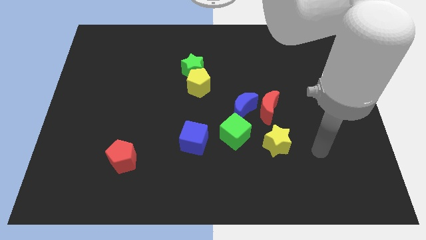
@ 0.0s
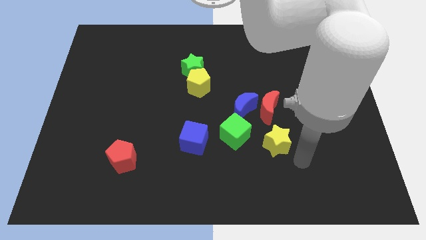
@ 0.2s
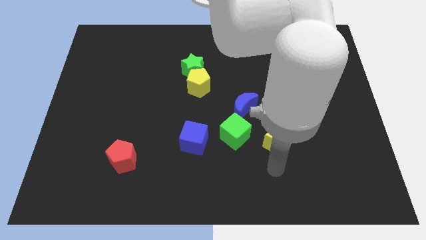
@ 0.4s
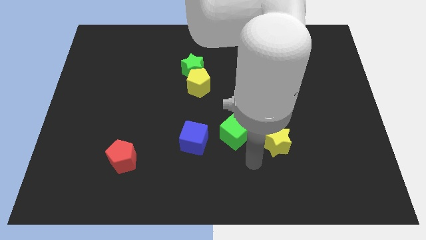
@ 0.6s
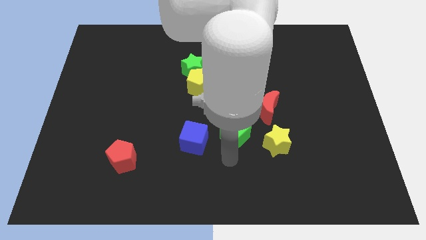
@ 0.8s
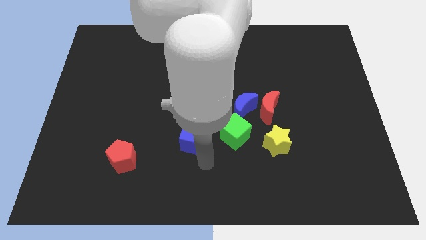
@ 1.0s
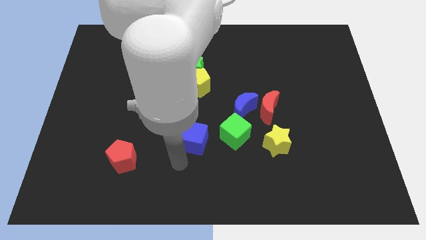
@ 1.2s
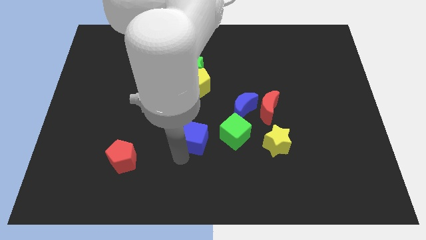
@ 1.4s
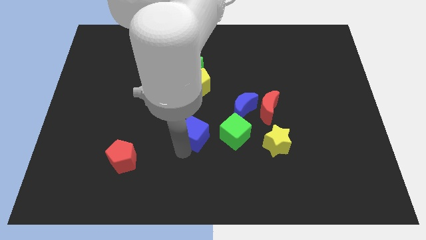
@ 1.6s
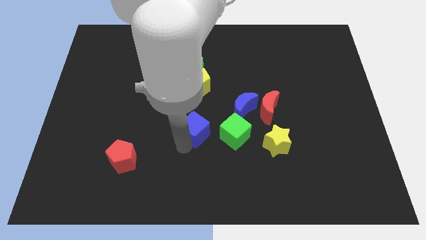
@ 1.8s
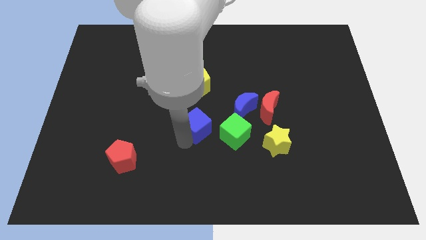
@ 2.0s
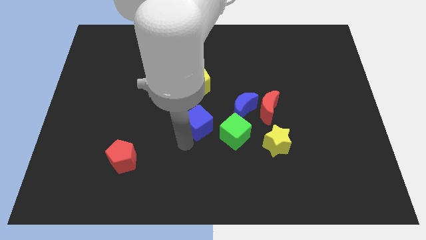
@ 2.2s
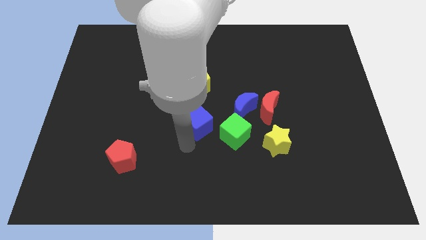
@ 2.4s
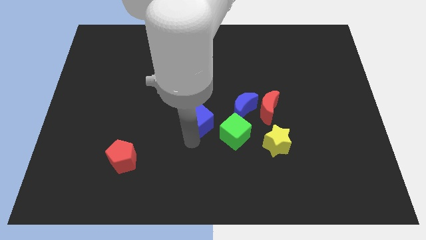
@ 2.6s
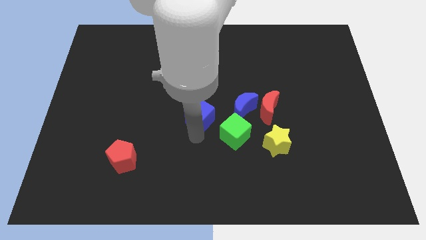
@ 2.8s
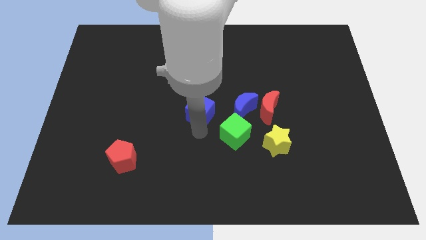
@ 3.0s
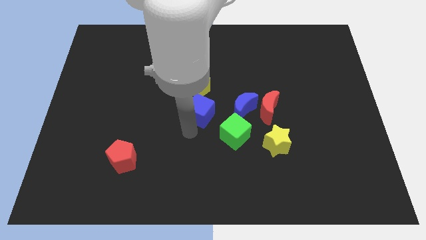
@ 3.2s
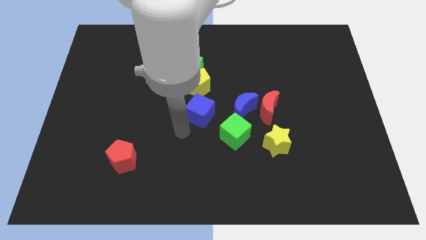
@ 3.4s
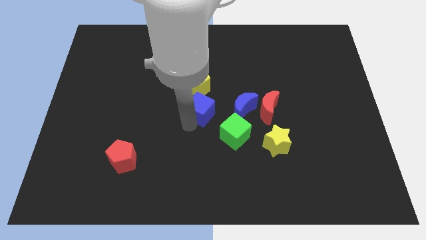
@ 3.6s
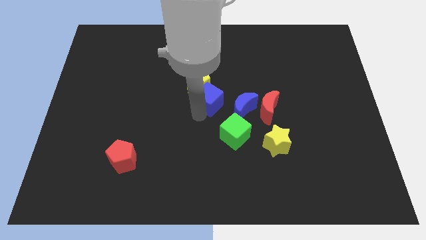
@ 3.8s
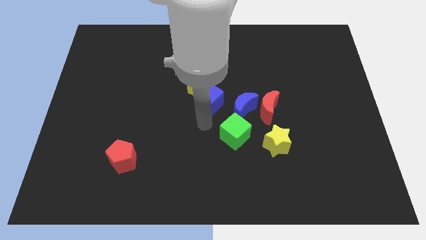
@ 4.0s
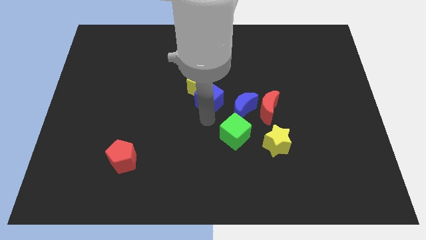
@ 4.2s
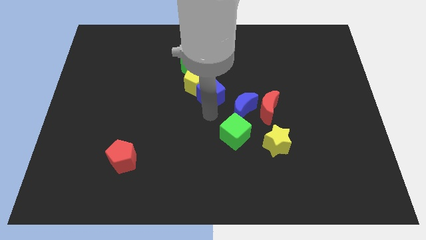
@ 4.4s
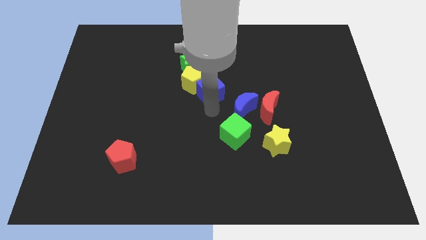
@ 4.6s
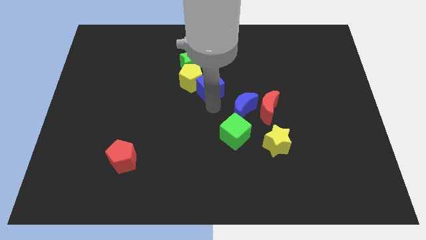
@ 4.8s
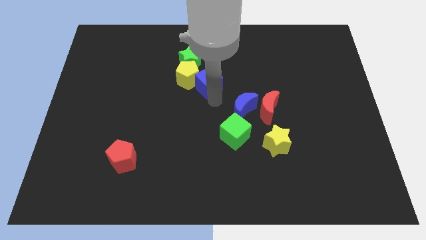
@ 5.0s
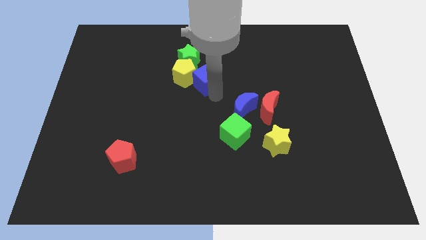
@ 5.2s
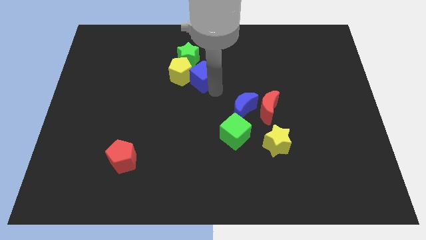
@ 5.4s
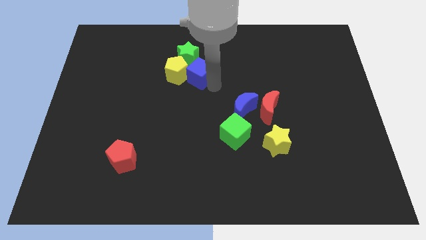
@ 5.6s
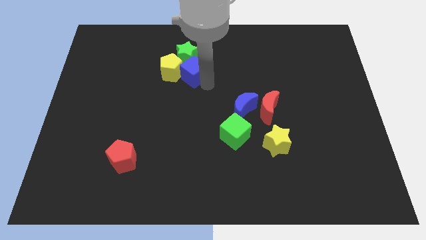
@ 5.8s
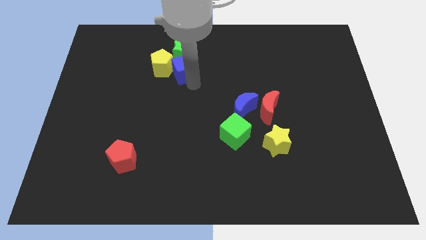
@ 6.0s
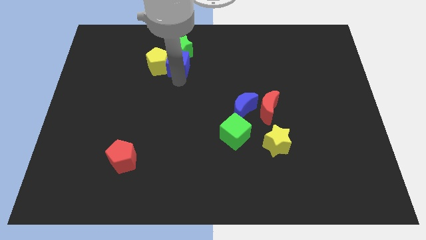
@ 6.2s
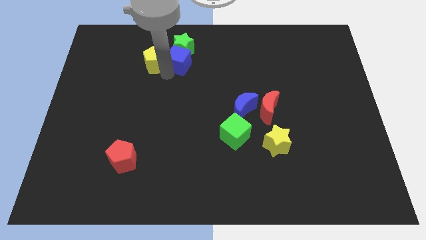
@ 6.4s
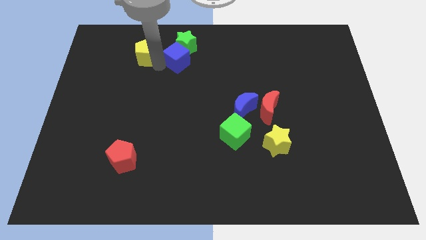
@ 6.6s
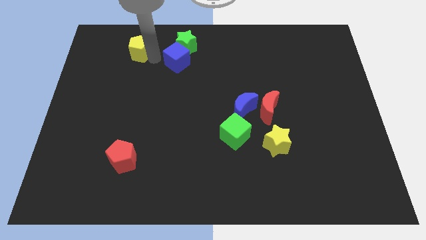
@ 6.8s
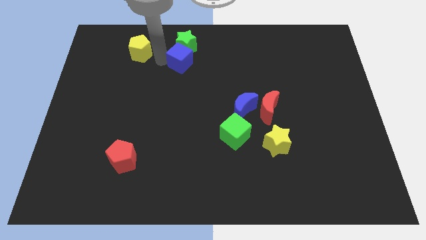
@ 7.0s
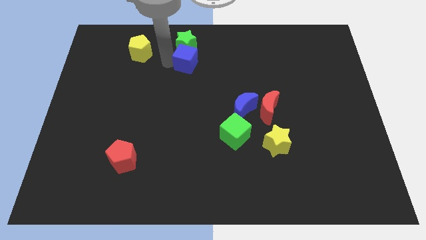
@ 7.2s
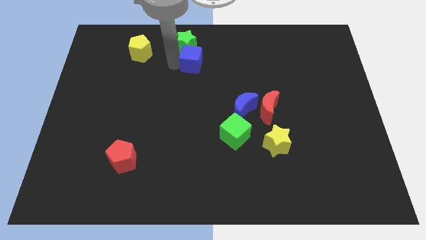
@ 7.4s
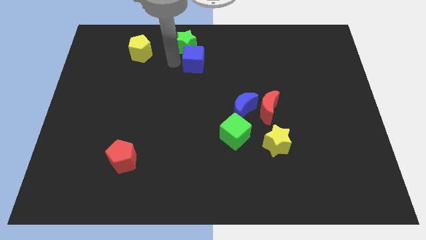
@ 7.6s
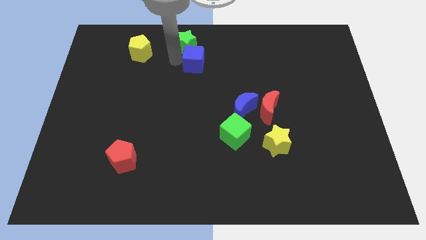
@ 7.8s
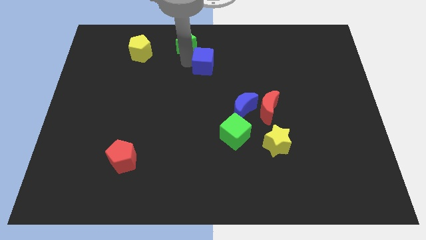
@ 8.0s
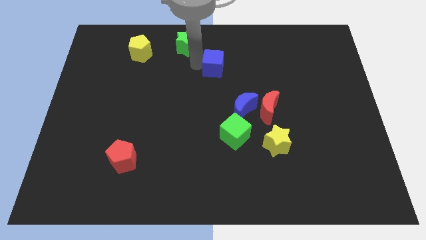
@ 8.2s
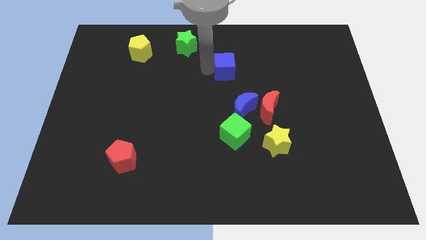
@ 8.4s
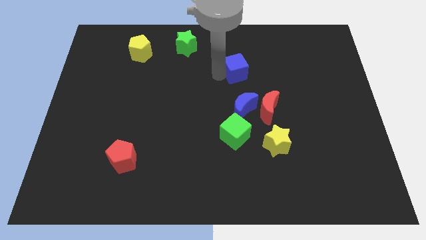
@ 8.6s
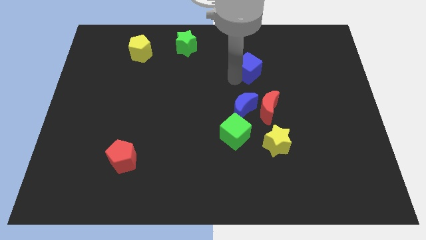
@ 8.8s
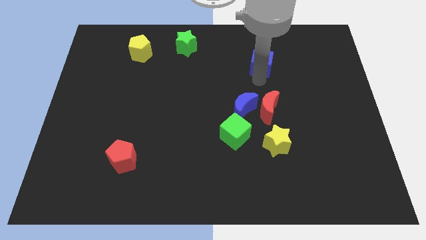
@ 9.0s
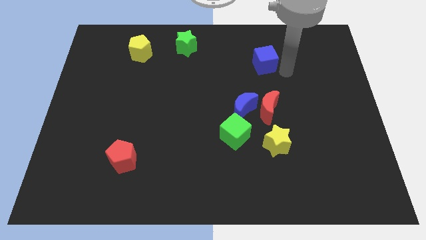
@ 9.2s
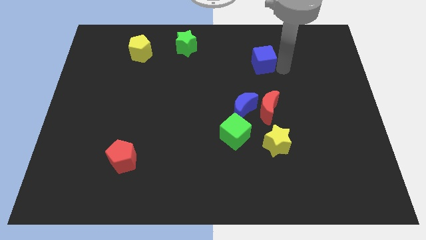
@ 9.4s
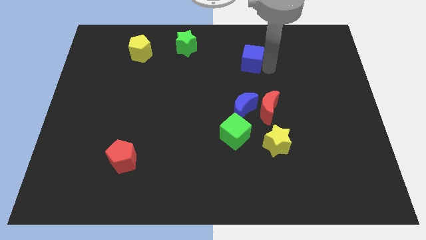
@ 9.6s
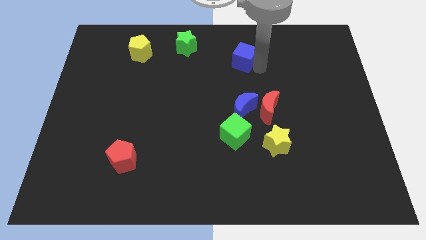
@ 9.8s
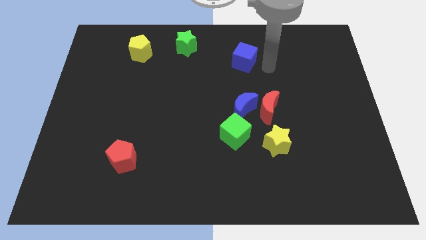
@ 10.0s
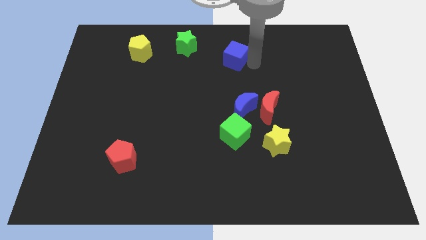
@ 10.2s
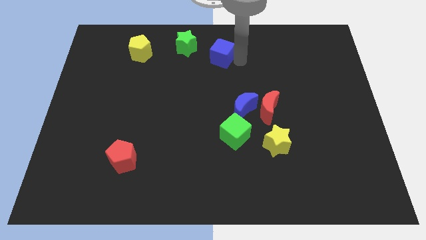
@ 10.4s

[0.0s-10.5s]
push the blue cube to the towards your base

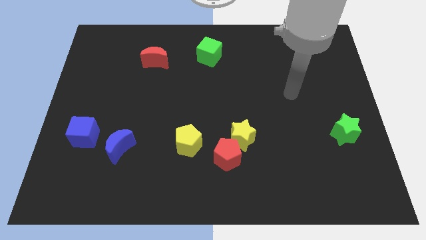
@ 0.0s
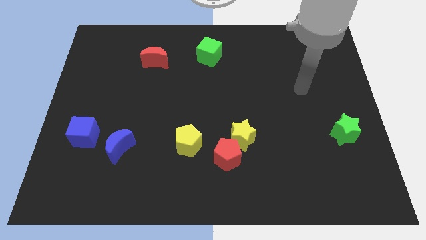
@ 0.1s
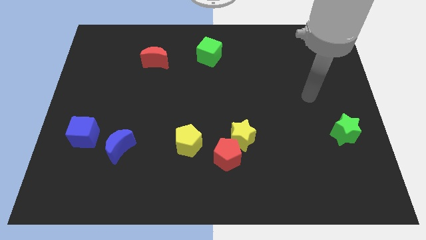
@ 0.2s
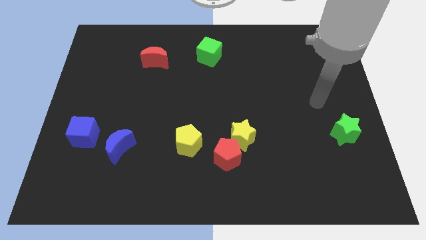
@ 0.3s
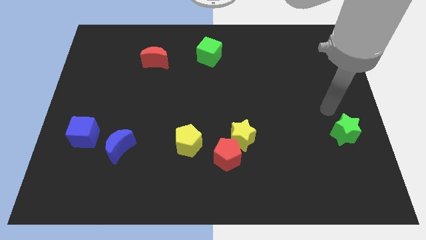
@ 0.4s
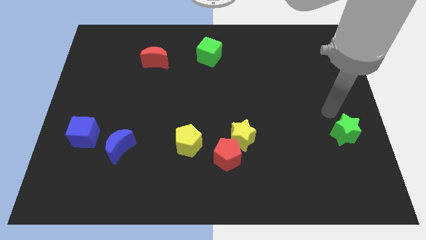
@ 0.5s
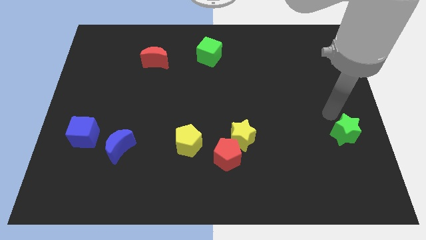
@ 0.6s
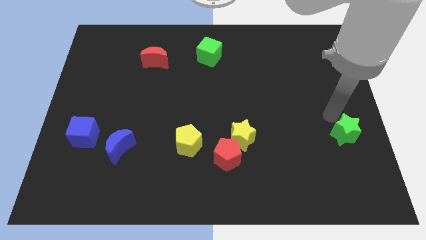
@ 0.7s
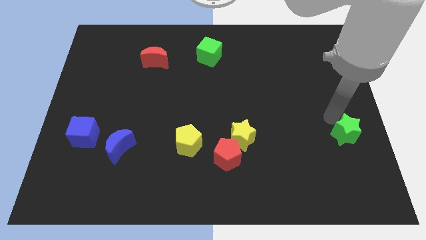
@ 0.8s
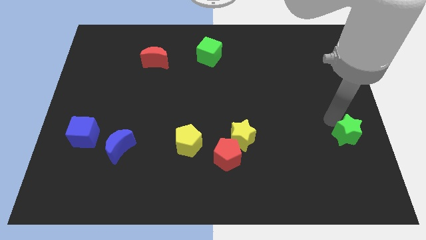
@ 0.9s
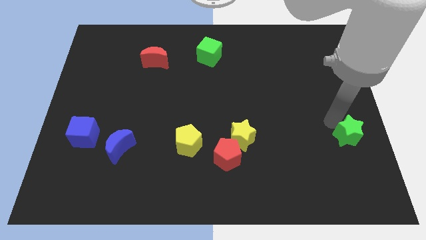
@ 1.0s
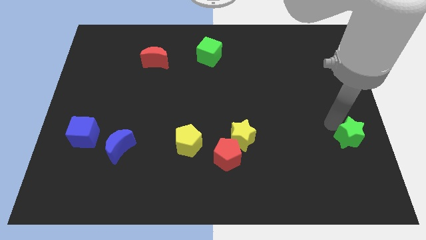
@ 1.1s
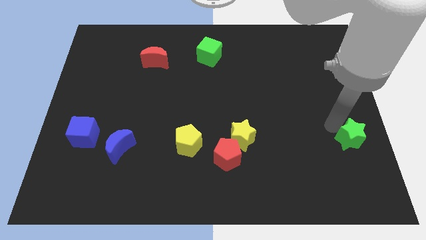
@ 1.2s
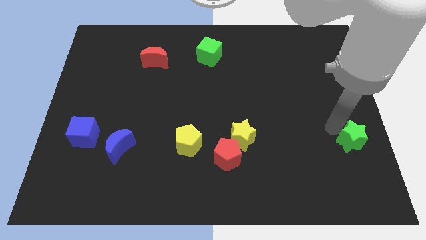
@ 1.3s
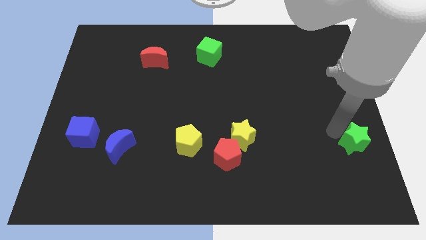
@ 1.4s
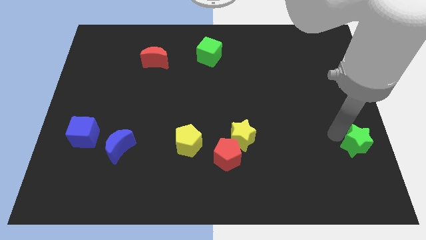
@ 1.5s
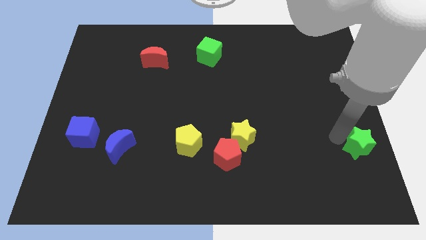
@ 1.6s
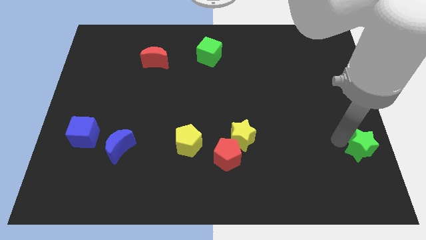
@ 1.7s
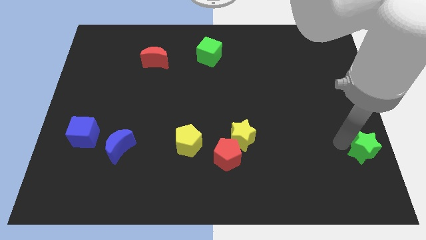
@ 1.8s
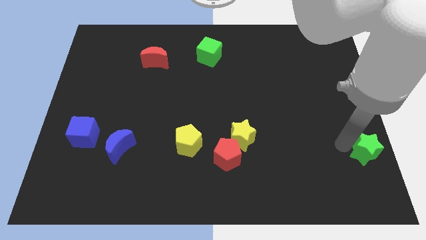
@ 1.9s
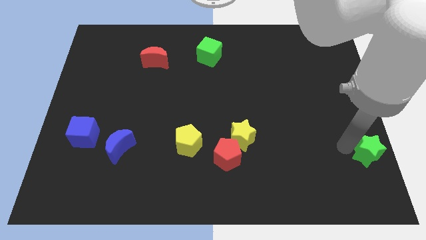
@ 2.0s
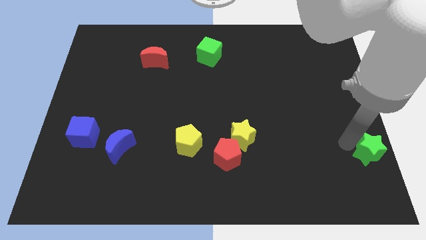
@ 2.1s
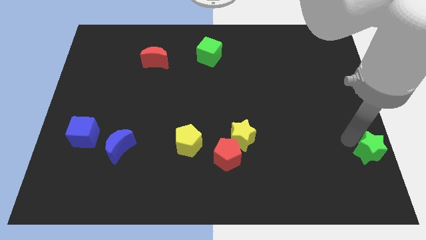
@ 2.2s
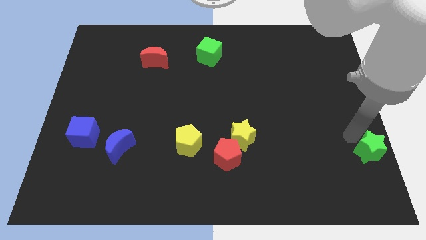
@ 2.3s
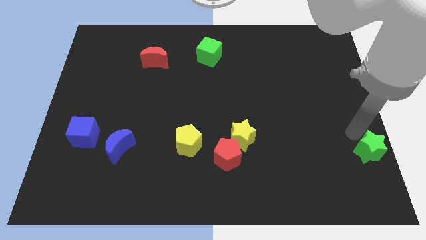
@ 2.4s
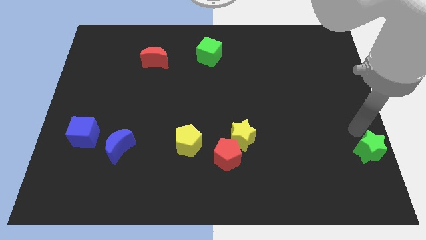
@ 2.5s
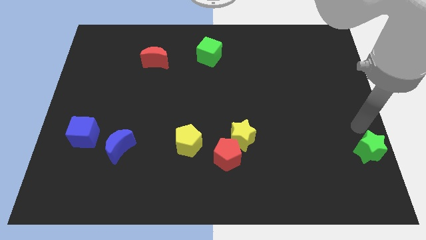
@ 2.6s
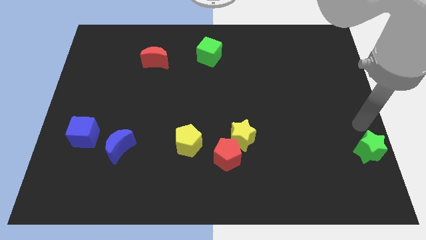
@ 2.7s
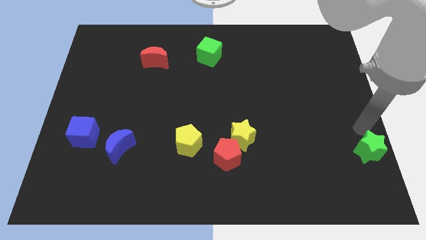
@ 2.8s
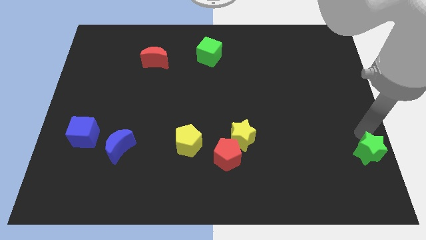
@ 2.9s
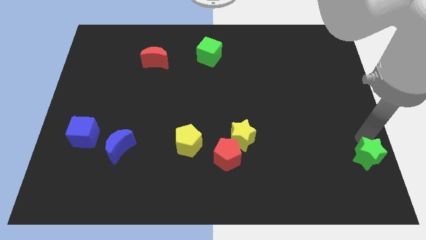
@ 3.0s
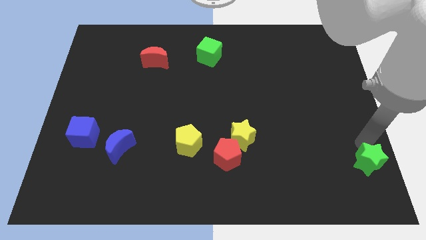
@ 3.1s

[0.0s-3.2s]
move the green star to the bottom right corner
